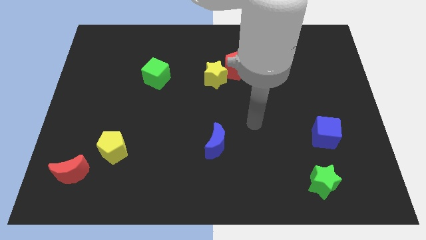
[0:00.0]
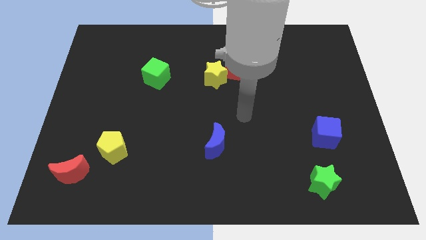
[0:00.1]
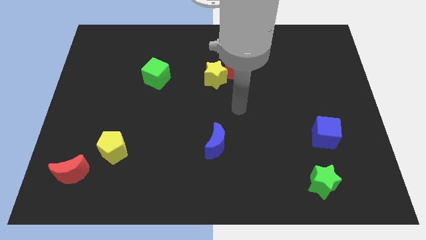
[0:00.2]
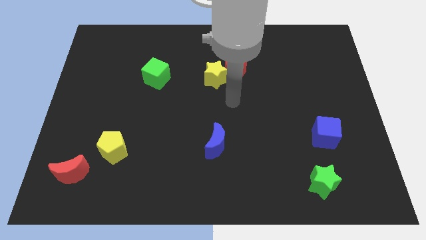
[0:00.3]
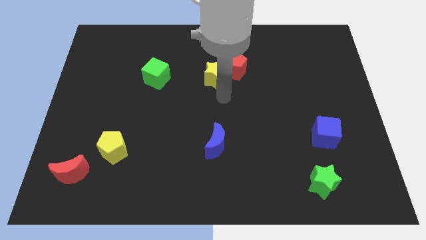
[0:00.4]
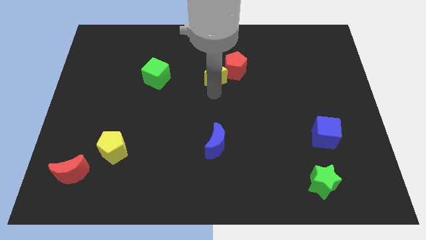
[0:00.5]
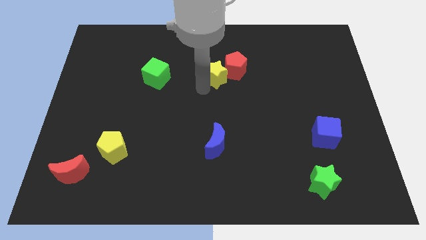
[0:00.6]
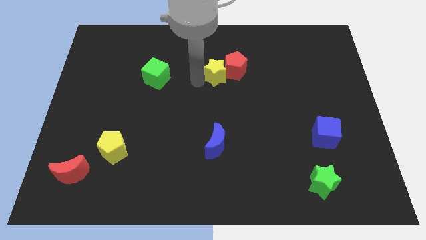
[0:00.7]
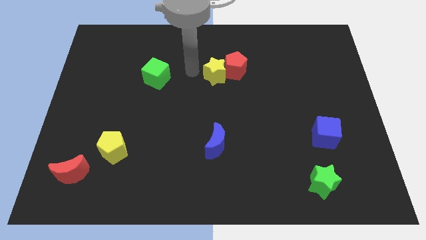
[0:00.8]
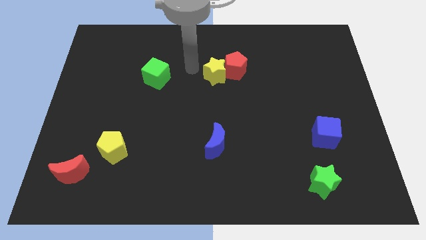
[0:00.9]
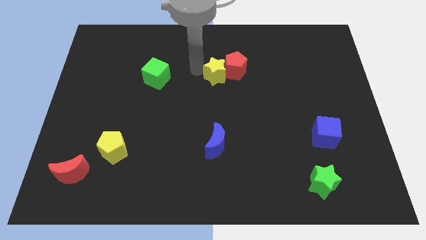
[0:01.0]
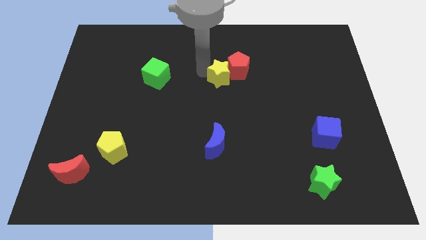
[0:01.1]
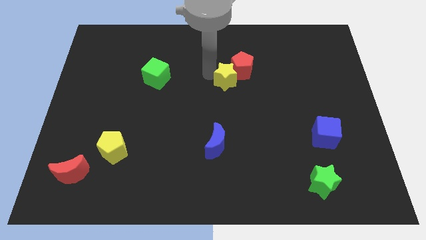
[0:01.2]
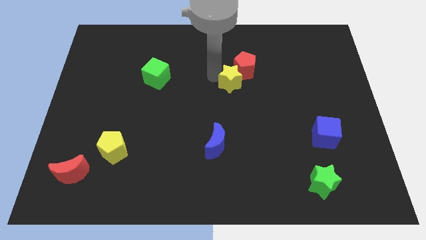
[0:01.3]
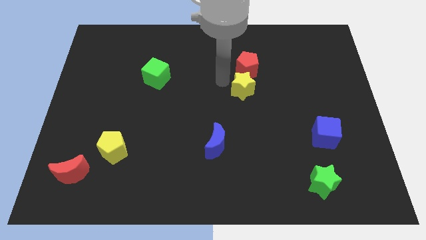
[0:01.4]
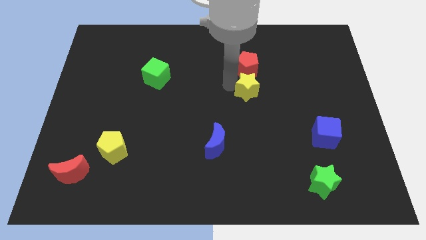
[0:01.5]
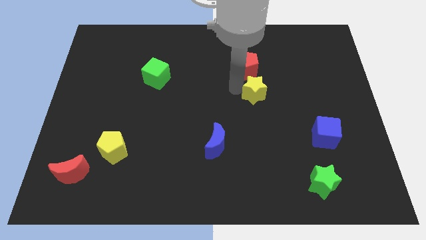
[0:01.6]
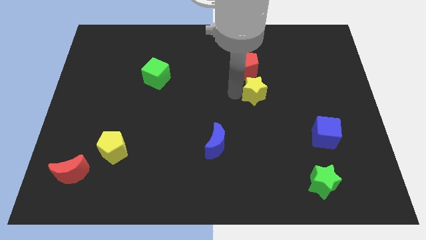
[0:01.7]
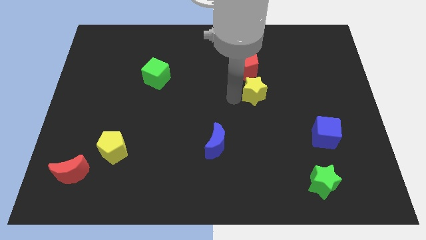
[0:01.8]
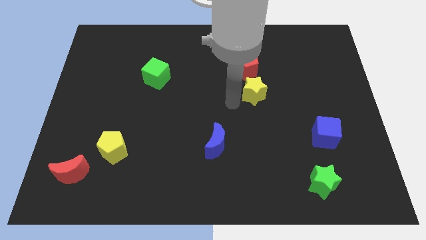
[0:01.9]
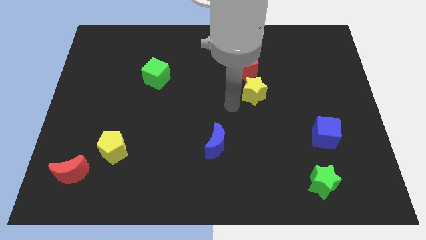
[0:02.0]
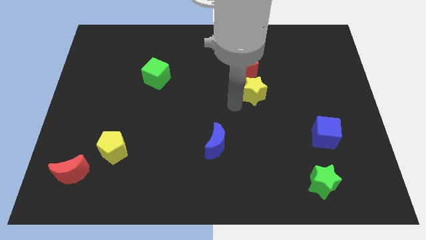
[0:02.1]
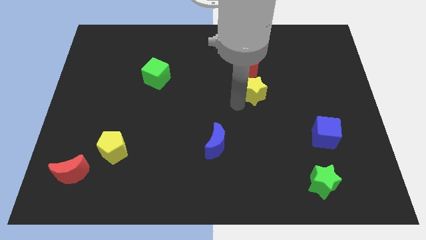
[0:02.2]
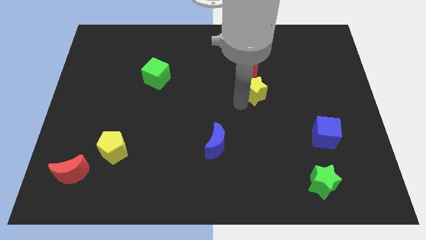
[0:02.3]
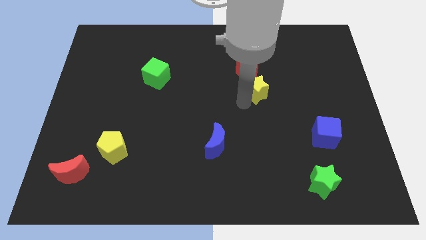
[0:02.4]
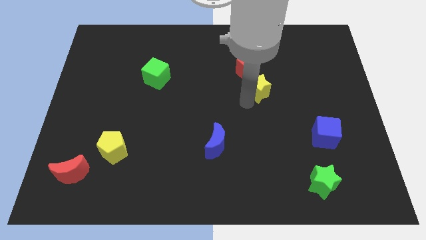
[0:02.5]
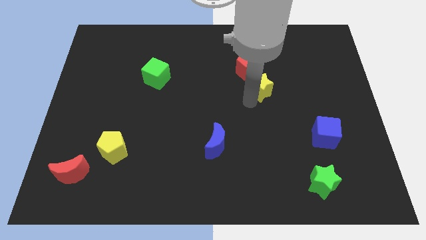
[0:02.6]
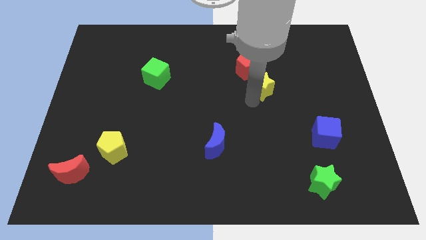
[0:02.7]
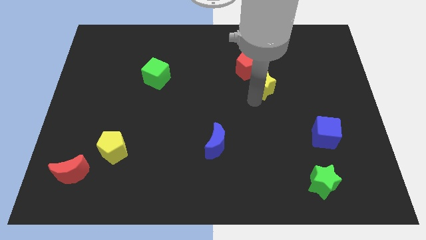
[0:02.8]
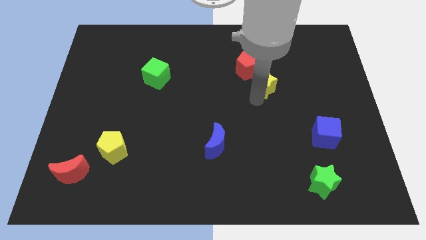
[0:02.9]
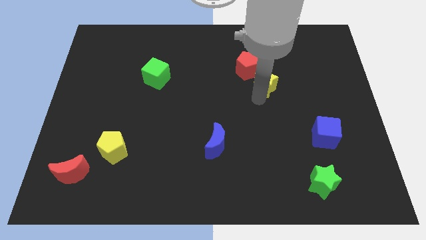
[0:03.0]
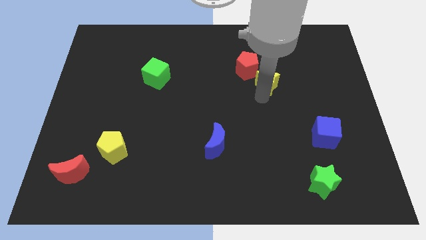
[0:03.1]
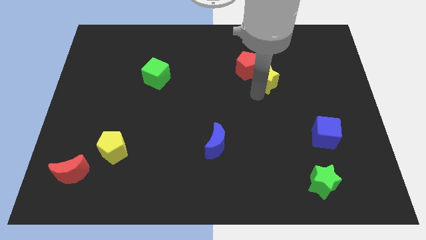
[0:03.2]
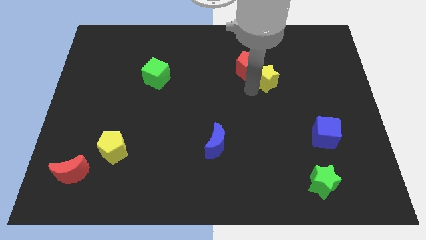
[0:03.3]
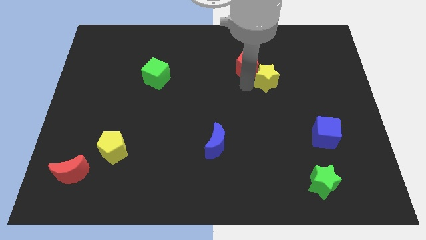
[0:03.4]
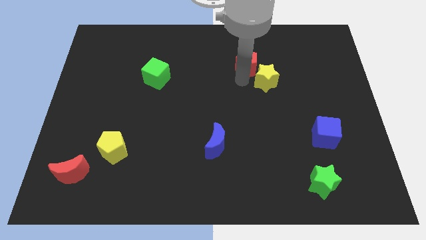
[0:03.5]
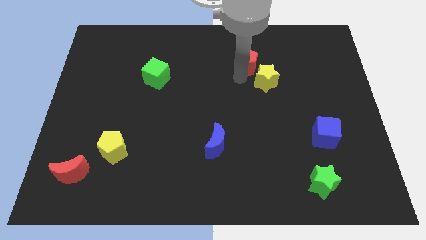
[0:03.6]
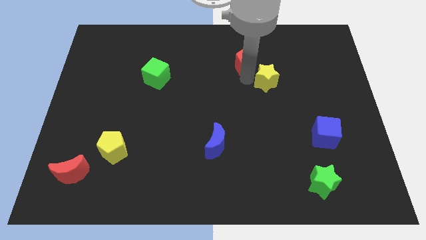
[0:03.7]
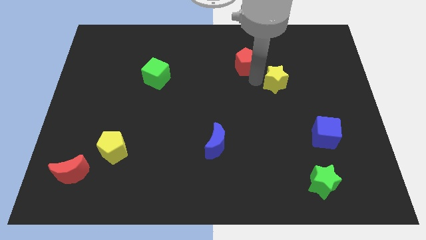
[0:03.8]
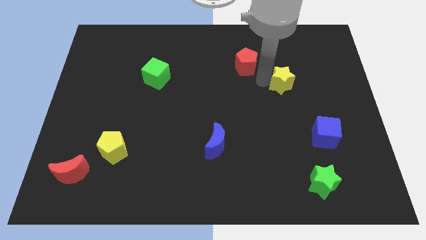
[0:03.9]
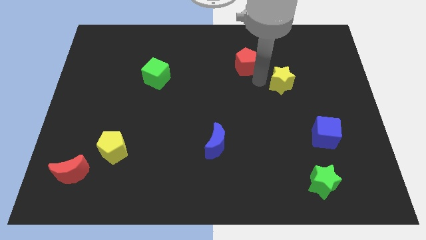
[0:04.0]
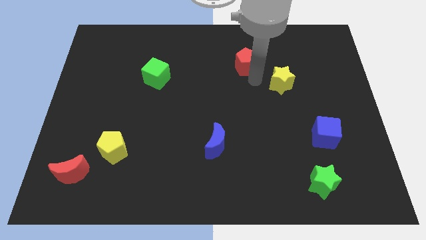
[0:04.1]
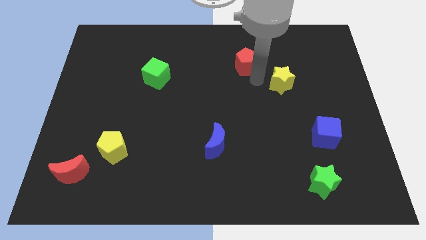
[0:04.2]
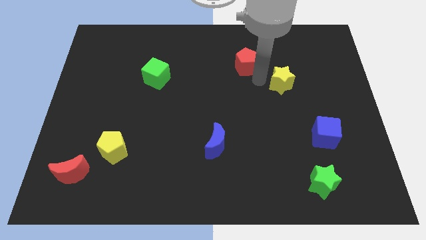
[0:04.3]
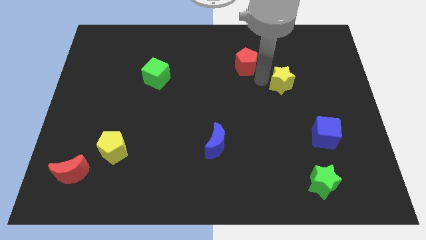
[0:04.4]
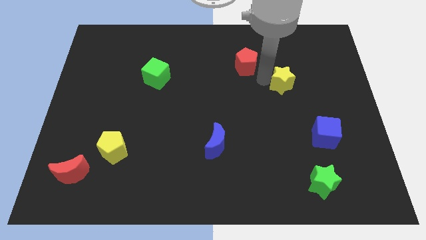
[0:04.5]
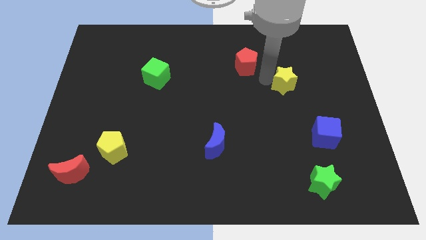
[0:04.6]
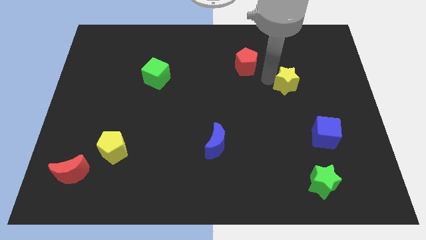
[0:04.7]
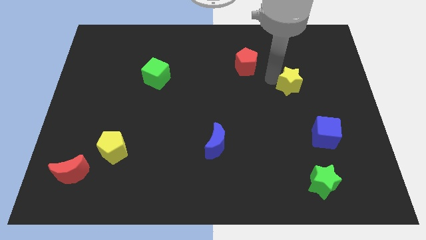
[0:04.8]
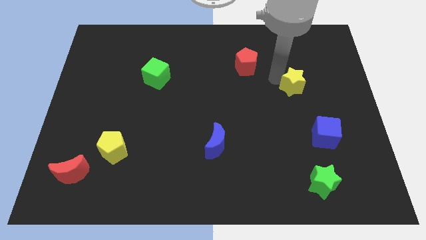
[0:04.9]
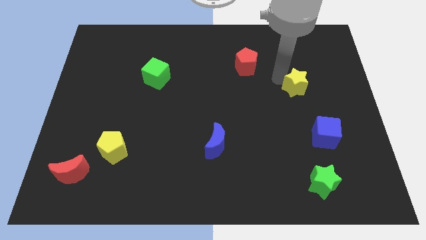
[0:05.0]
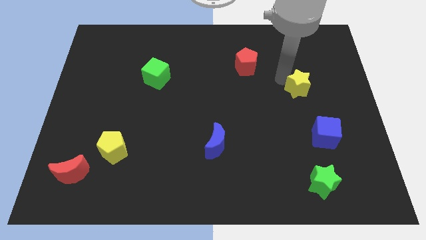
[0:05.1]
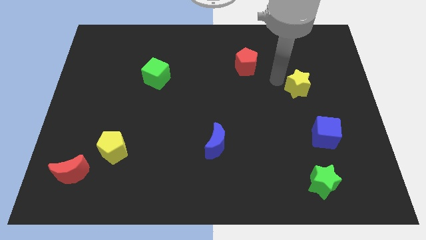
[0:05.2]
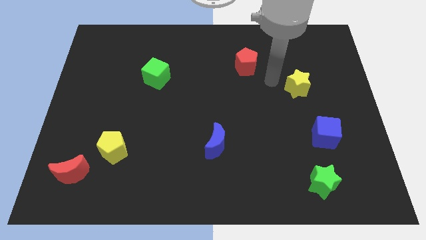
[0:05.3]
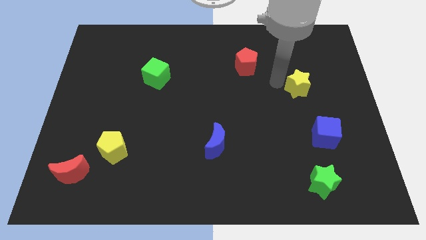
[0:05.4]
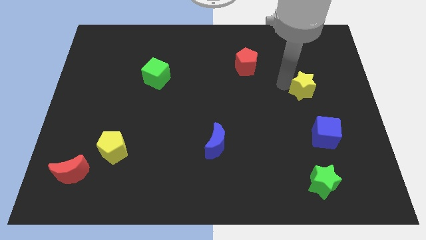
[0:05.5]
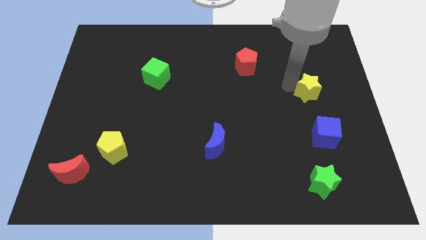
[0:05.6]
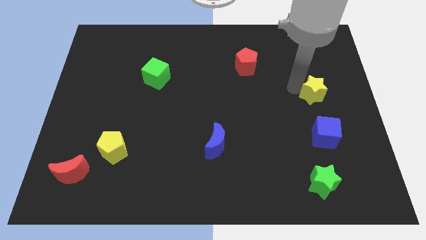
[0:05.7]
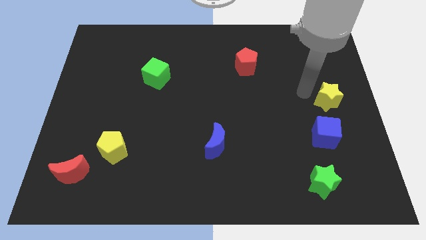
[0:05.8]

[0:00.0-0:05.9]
put the yellow star to the center right
